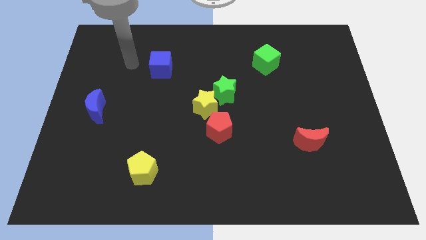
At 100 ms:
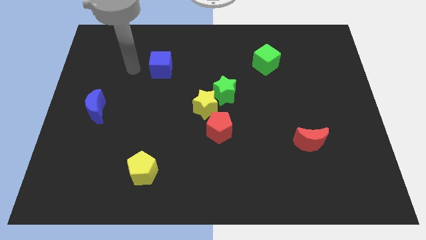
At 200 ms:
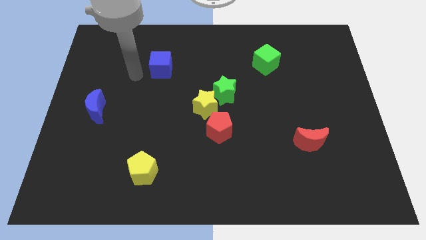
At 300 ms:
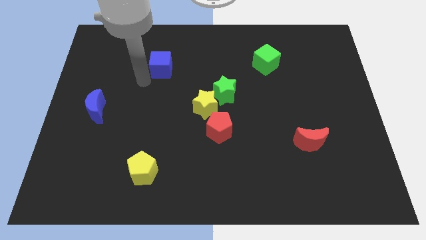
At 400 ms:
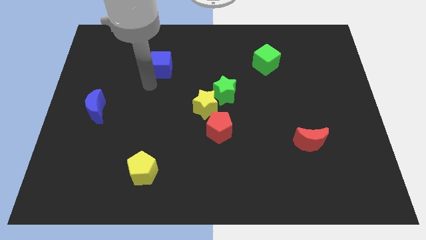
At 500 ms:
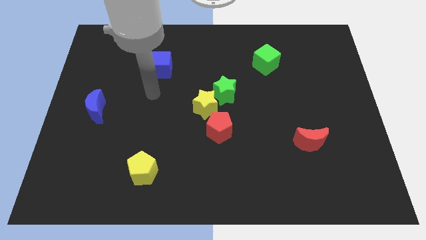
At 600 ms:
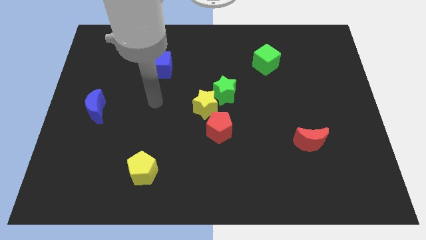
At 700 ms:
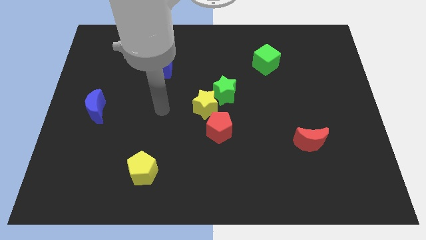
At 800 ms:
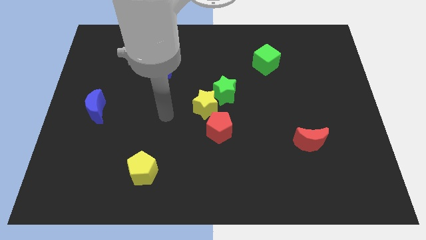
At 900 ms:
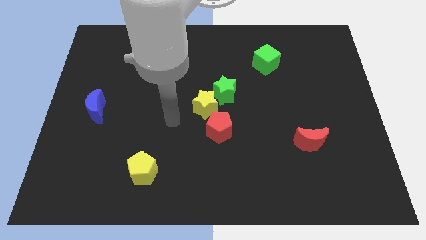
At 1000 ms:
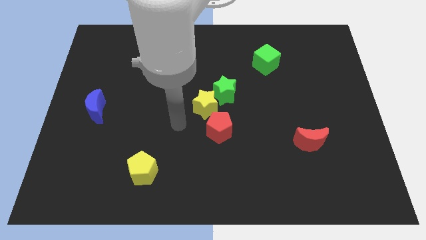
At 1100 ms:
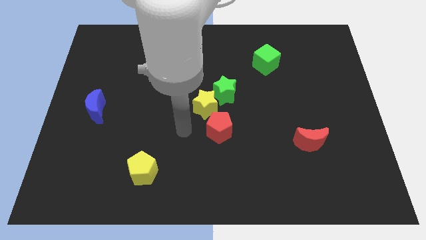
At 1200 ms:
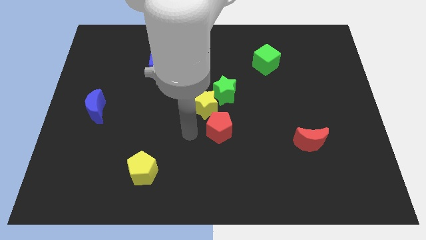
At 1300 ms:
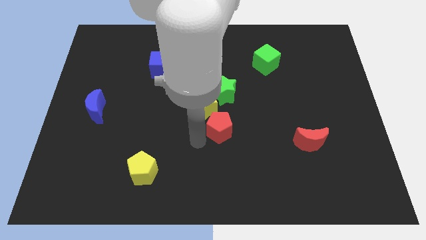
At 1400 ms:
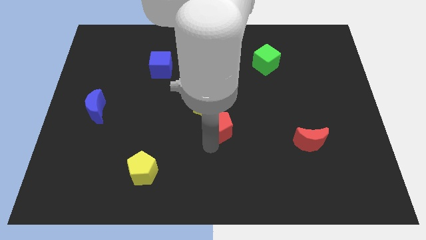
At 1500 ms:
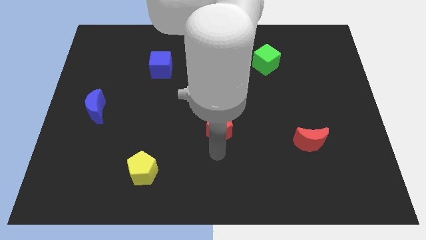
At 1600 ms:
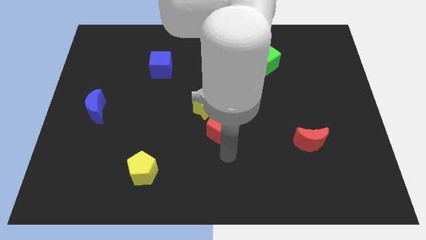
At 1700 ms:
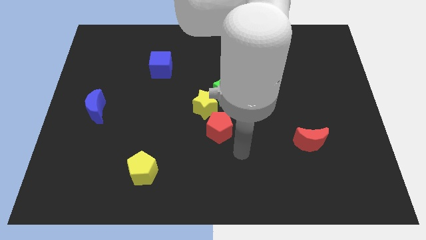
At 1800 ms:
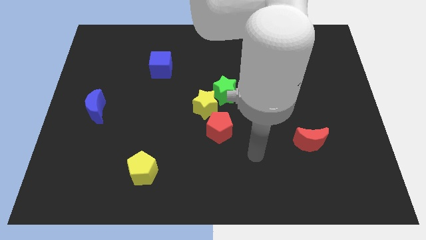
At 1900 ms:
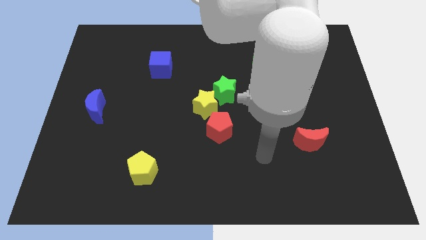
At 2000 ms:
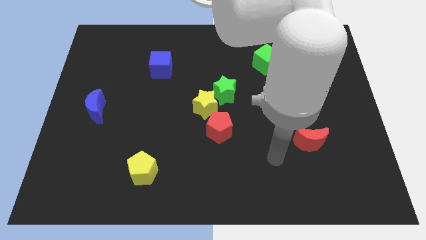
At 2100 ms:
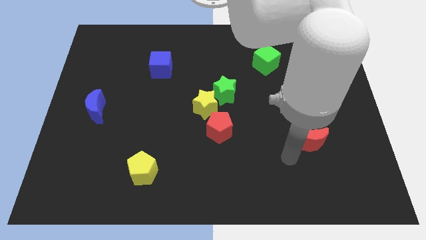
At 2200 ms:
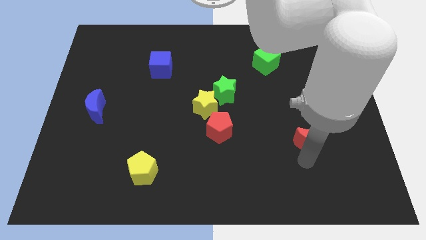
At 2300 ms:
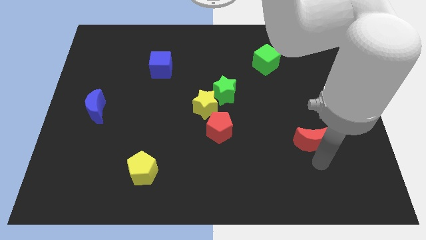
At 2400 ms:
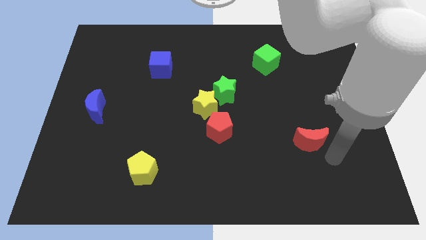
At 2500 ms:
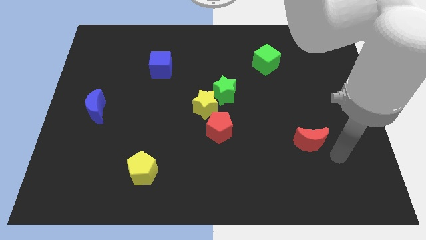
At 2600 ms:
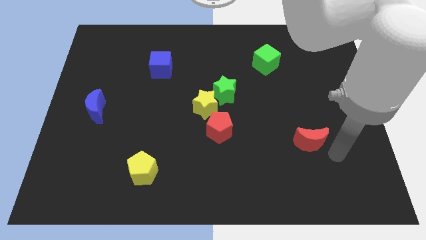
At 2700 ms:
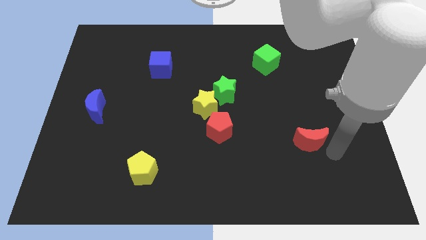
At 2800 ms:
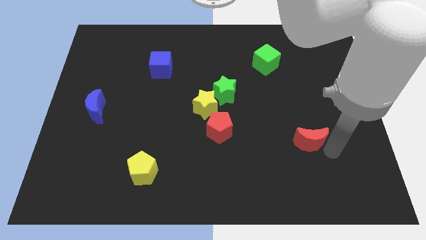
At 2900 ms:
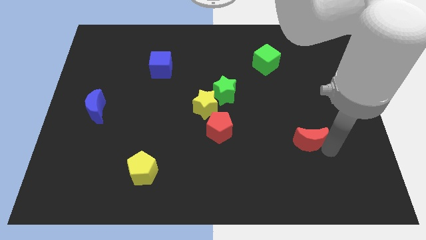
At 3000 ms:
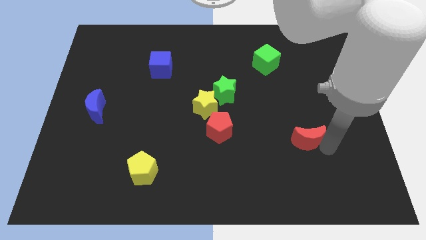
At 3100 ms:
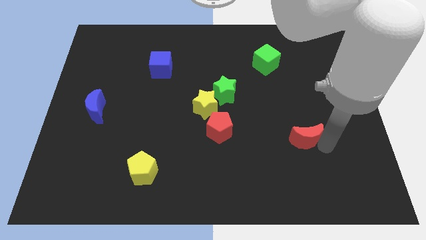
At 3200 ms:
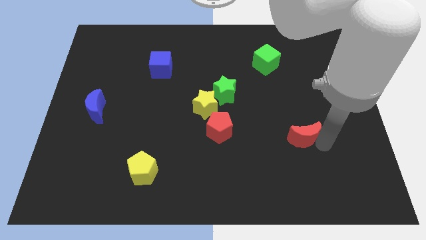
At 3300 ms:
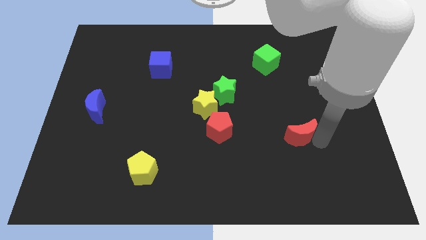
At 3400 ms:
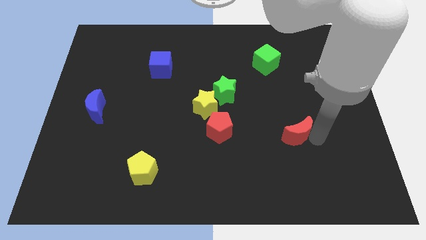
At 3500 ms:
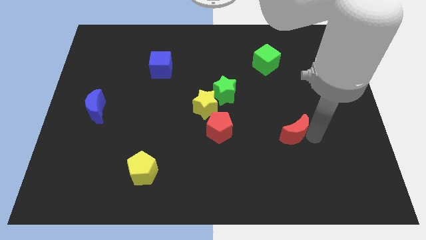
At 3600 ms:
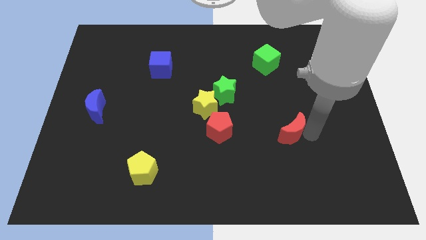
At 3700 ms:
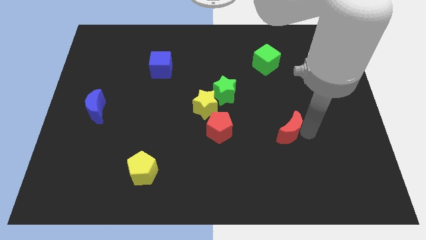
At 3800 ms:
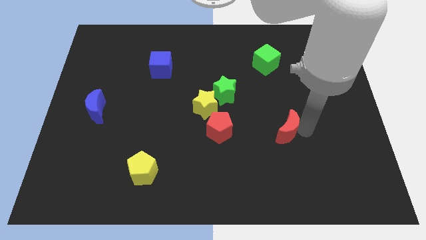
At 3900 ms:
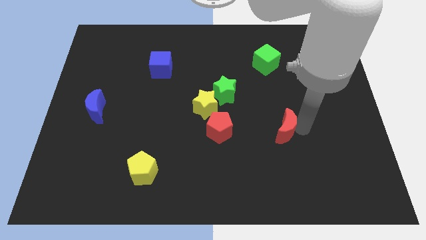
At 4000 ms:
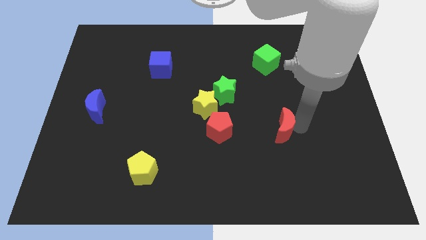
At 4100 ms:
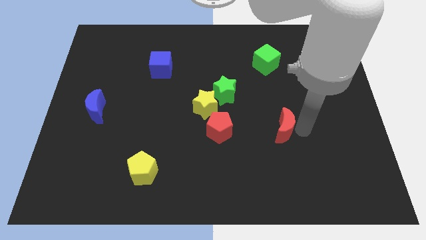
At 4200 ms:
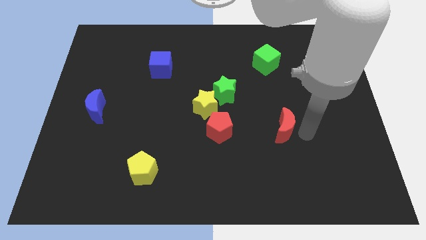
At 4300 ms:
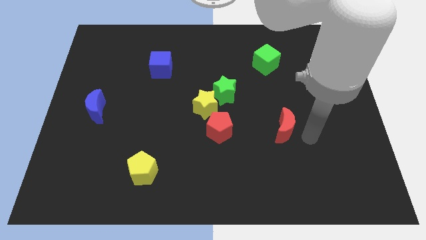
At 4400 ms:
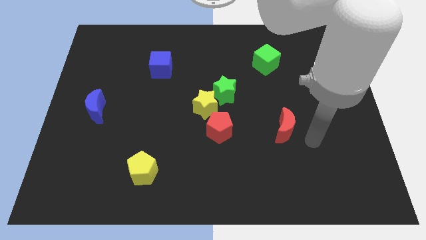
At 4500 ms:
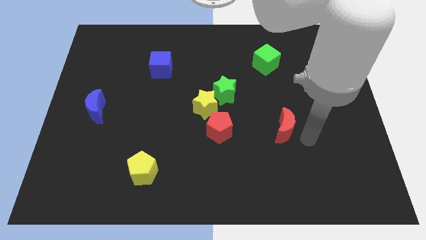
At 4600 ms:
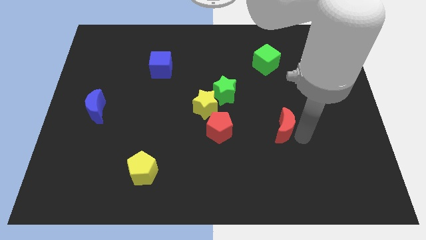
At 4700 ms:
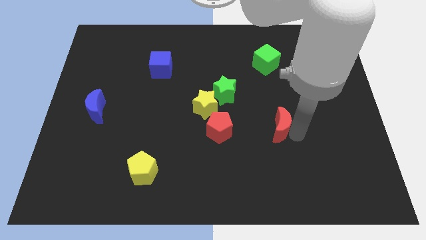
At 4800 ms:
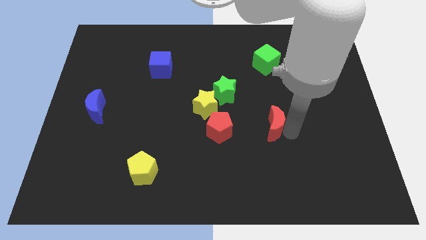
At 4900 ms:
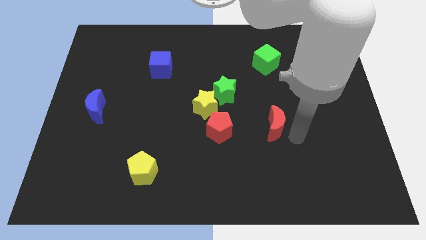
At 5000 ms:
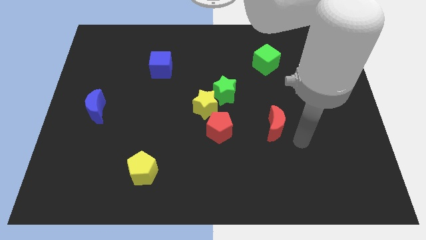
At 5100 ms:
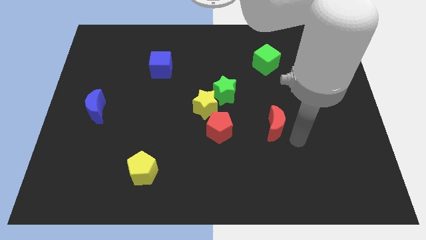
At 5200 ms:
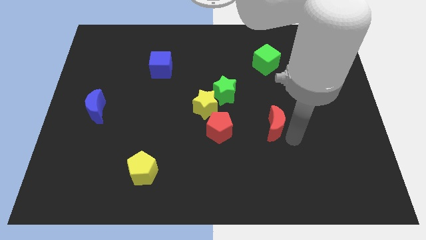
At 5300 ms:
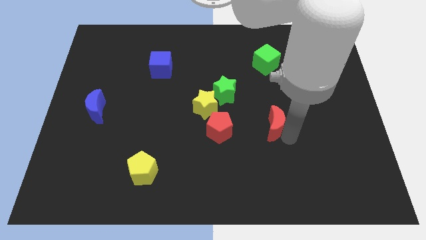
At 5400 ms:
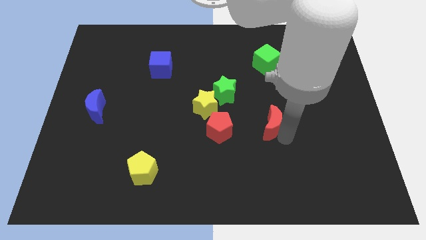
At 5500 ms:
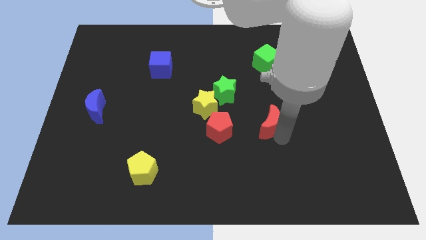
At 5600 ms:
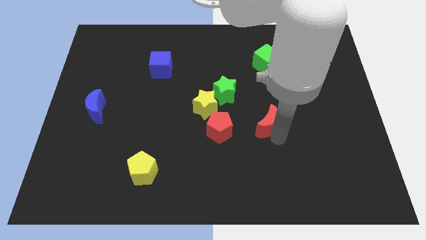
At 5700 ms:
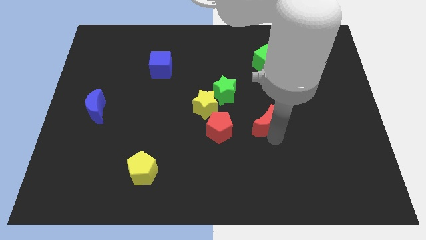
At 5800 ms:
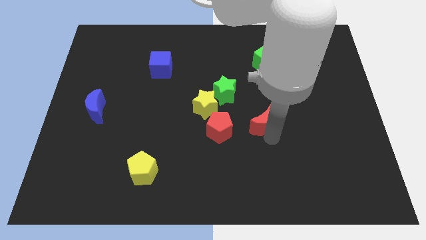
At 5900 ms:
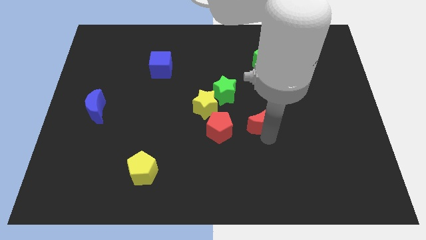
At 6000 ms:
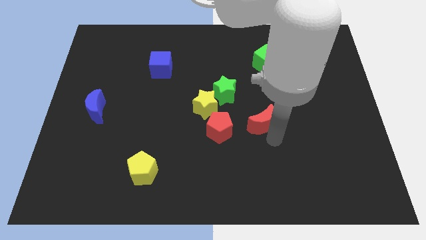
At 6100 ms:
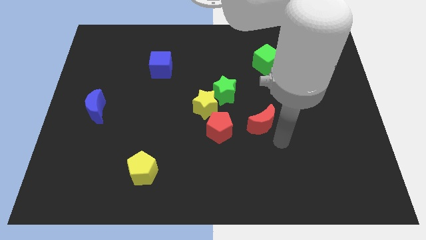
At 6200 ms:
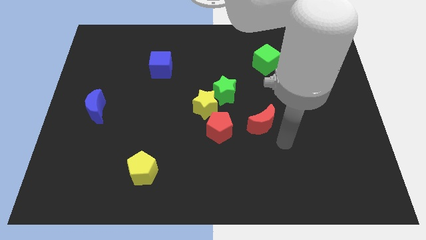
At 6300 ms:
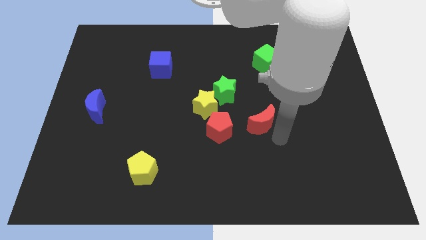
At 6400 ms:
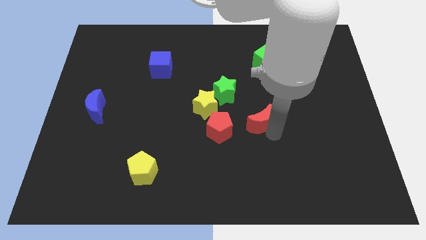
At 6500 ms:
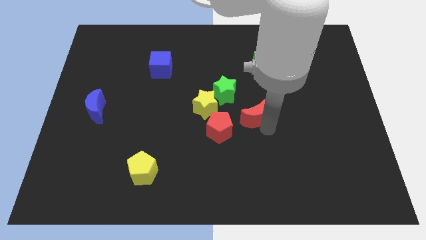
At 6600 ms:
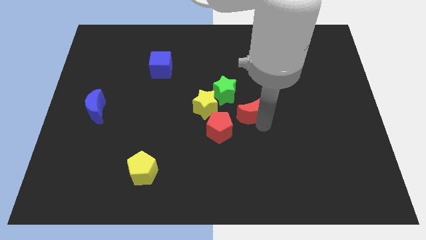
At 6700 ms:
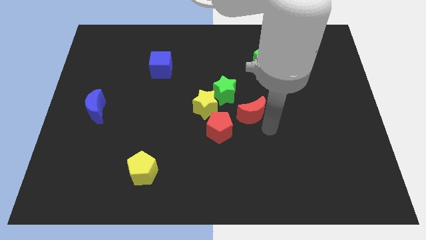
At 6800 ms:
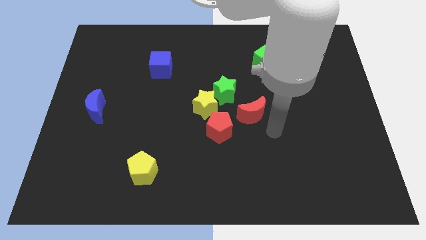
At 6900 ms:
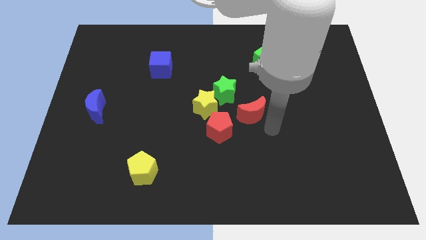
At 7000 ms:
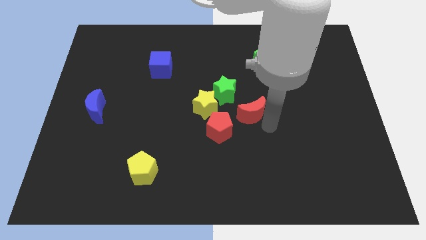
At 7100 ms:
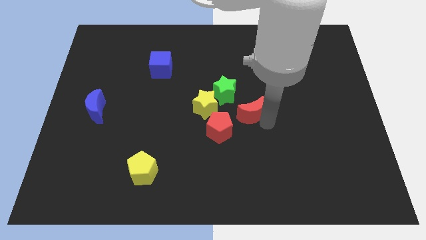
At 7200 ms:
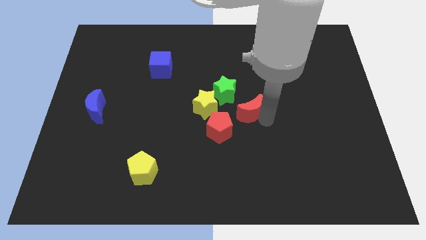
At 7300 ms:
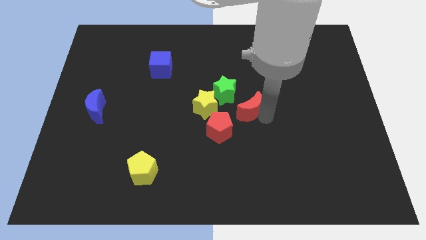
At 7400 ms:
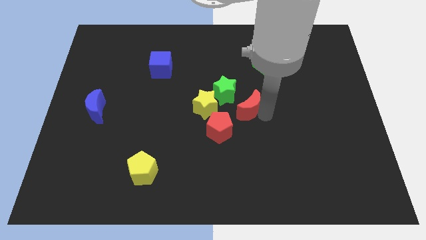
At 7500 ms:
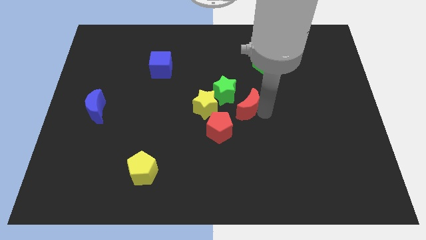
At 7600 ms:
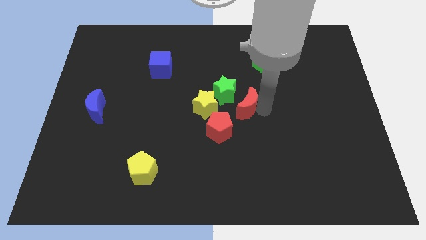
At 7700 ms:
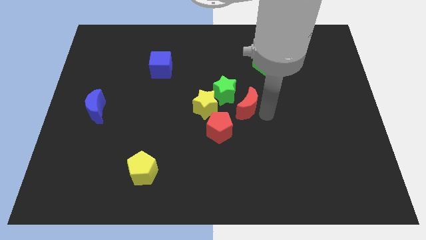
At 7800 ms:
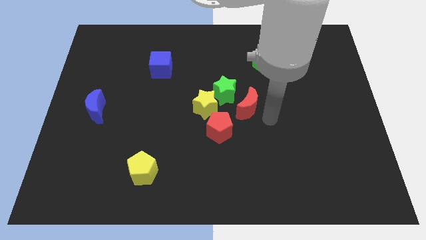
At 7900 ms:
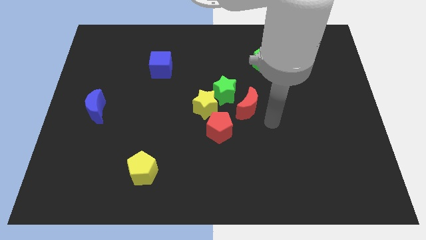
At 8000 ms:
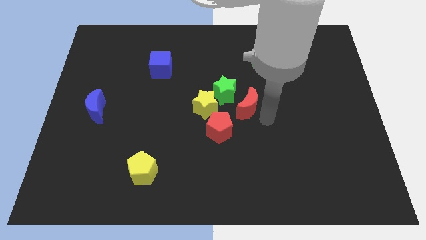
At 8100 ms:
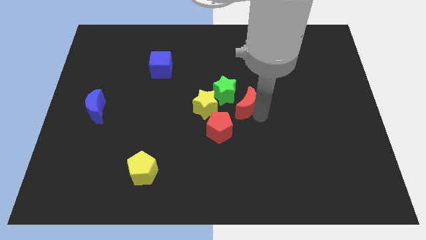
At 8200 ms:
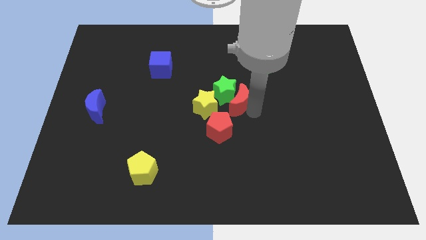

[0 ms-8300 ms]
push the red moon to the green star
